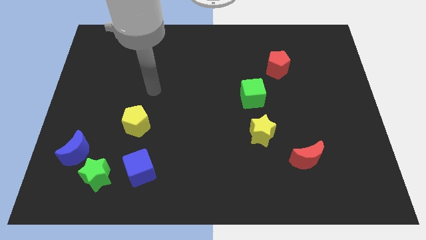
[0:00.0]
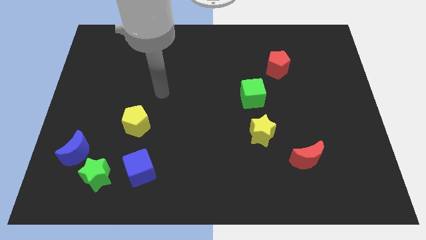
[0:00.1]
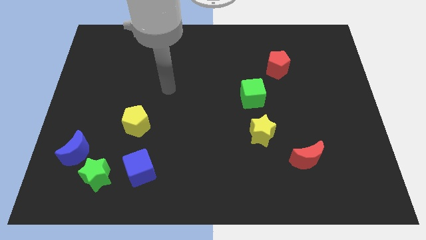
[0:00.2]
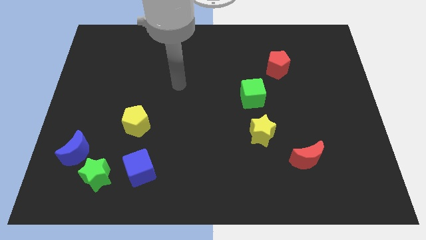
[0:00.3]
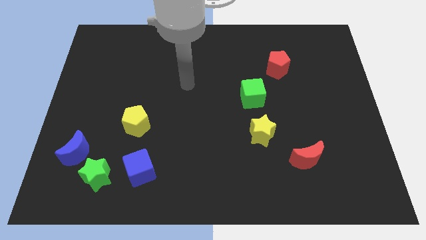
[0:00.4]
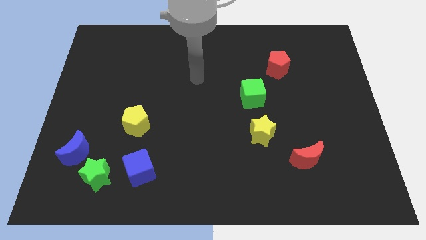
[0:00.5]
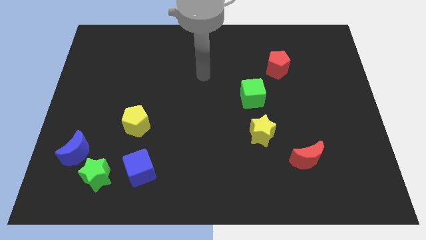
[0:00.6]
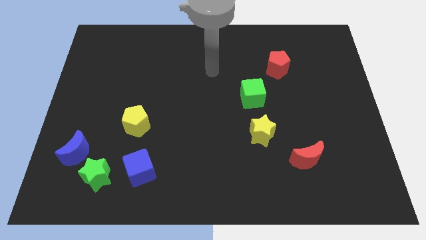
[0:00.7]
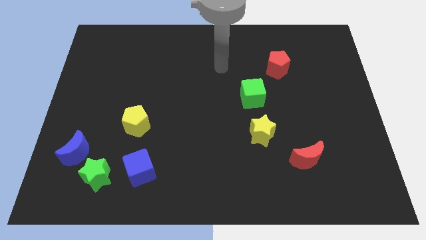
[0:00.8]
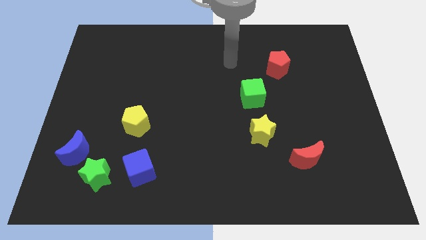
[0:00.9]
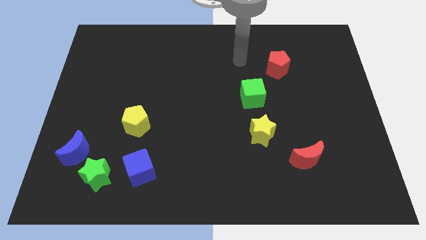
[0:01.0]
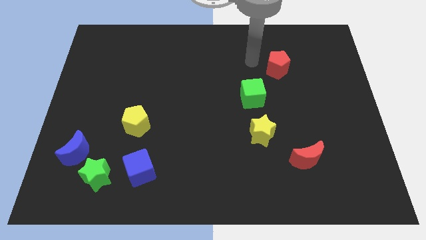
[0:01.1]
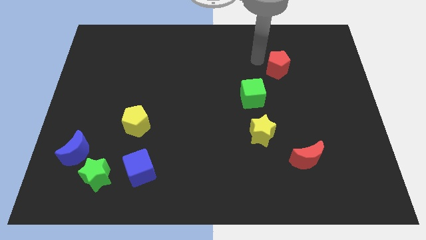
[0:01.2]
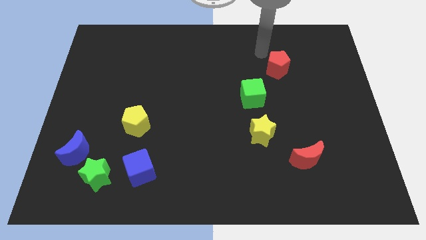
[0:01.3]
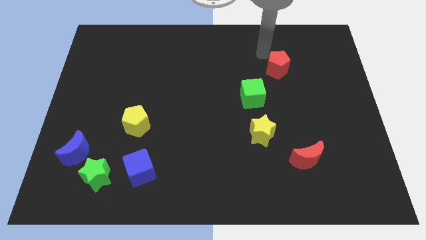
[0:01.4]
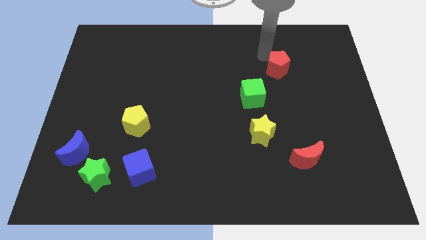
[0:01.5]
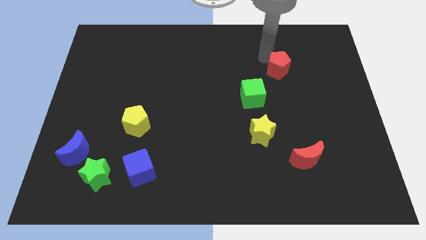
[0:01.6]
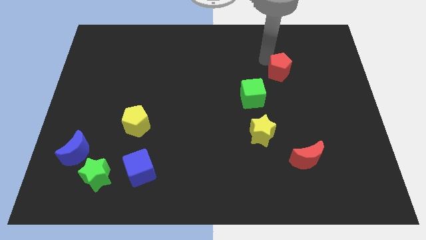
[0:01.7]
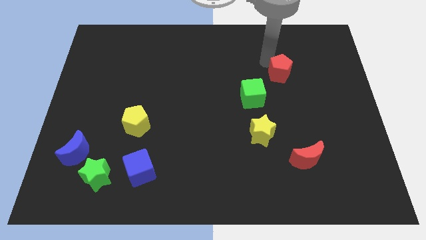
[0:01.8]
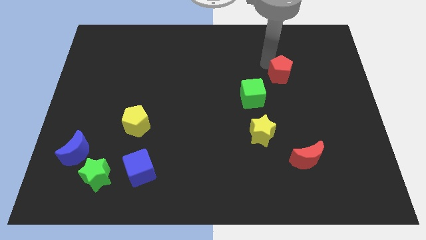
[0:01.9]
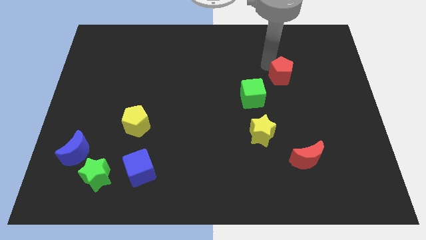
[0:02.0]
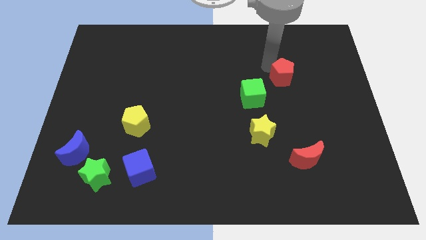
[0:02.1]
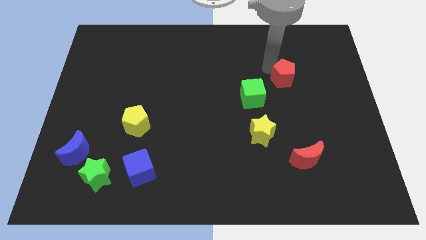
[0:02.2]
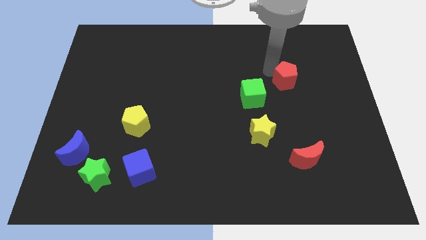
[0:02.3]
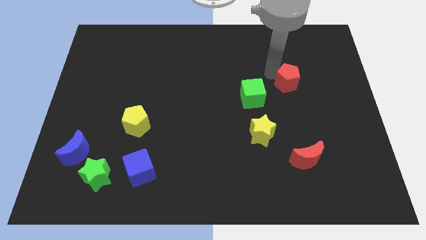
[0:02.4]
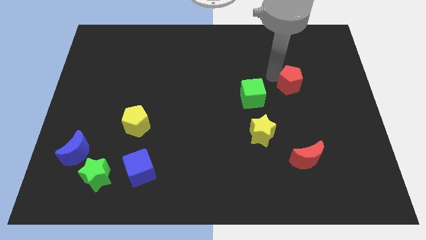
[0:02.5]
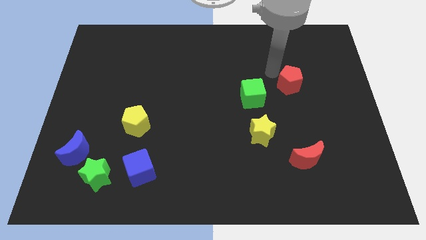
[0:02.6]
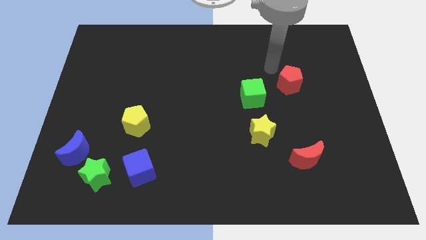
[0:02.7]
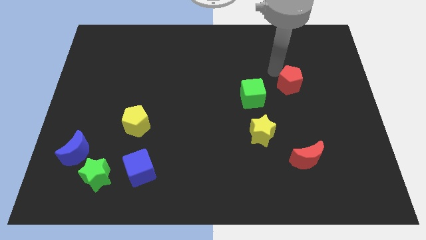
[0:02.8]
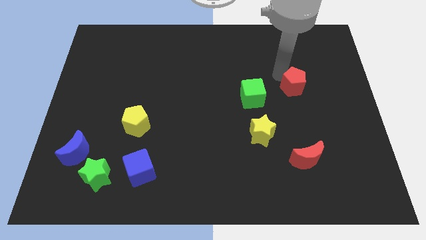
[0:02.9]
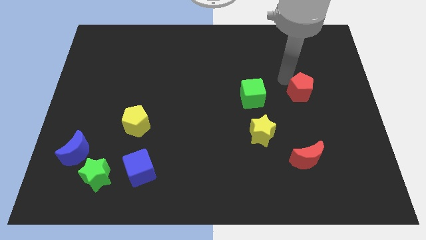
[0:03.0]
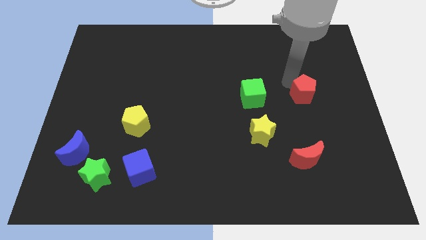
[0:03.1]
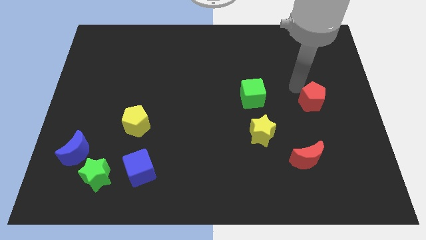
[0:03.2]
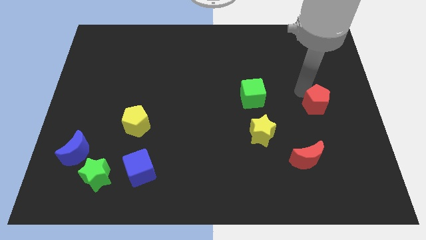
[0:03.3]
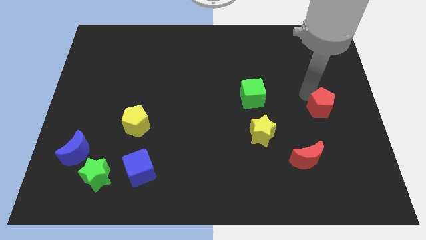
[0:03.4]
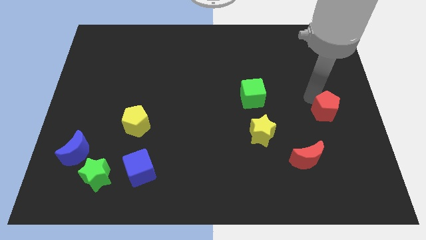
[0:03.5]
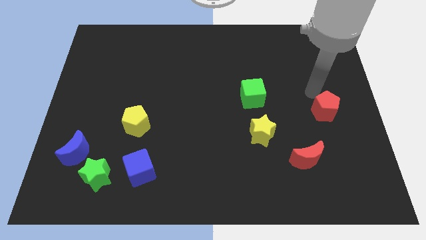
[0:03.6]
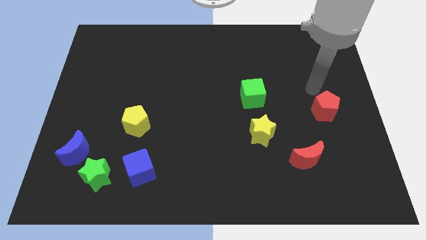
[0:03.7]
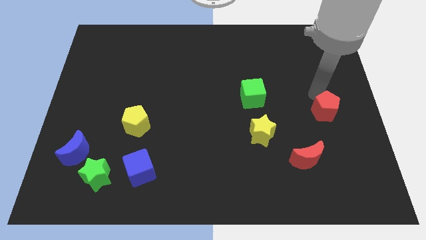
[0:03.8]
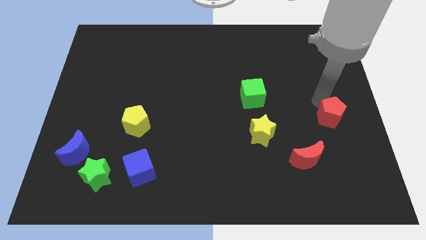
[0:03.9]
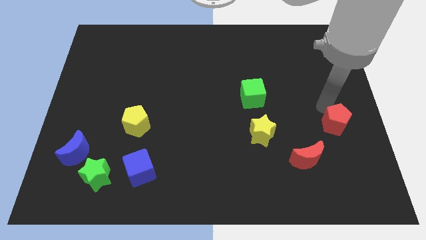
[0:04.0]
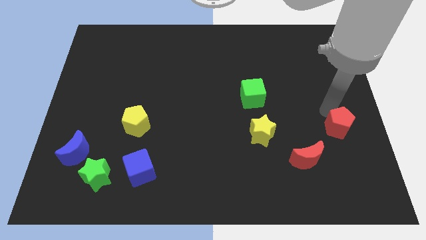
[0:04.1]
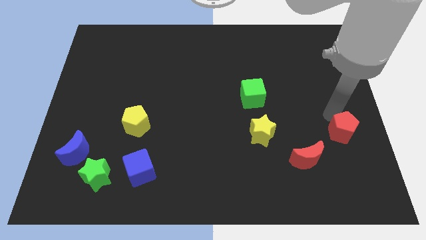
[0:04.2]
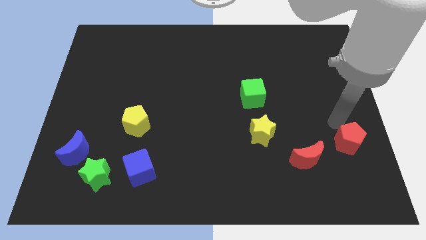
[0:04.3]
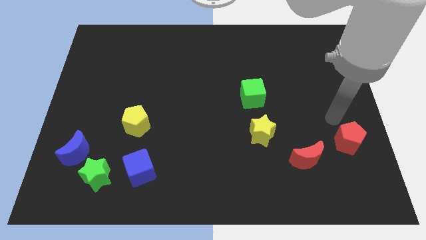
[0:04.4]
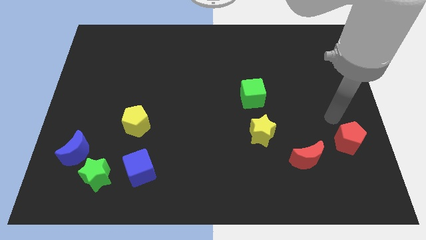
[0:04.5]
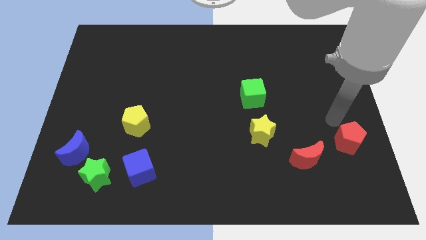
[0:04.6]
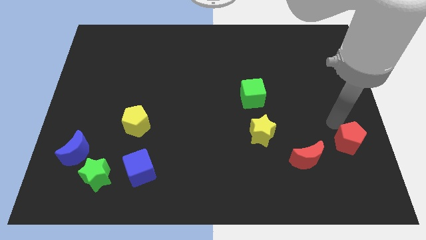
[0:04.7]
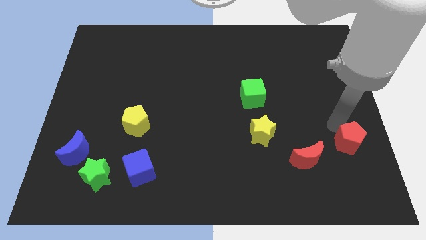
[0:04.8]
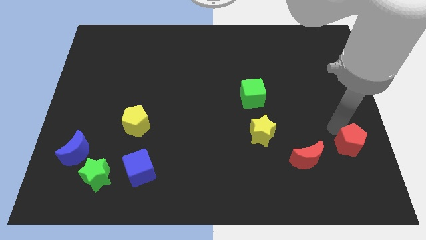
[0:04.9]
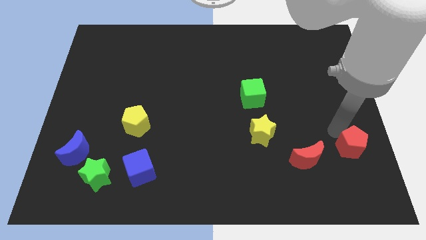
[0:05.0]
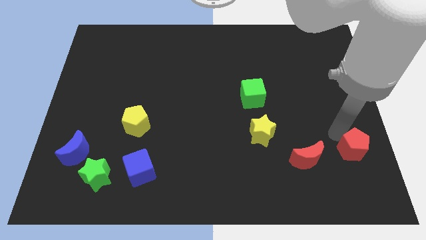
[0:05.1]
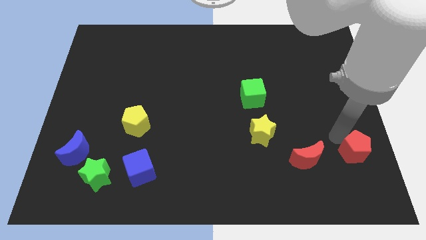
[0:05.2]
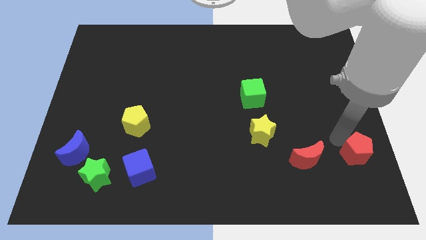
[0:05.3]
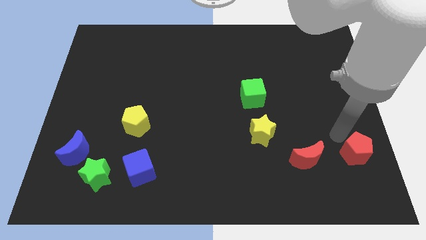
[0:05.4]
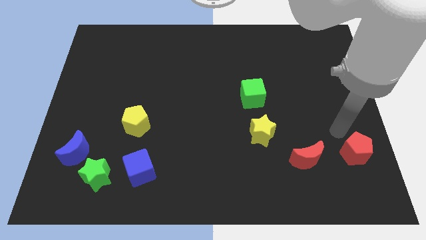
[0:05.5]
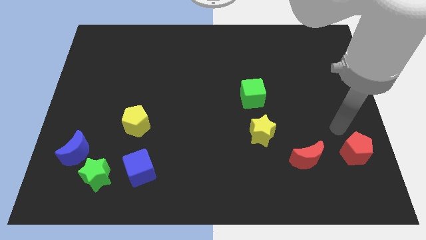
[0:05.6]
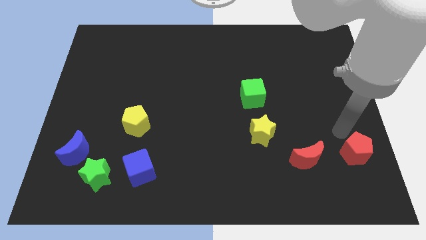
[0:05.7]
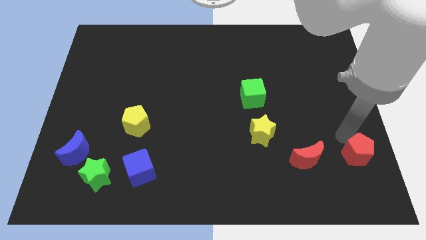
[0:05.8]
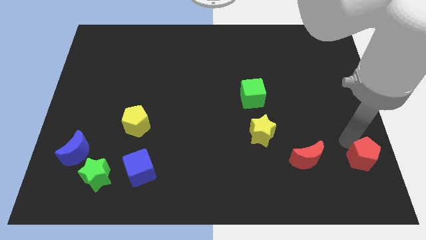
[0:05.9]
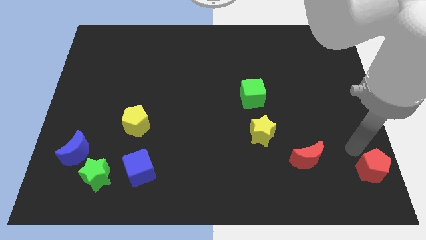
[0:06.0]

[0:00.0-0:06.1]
put the red pentagon to the lower right corner
